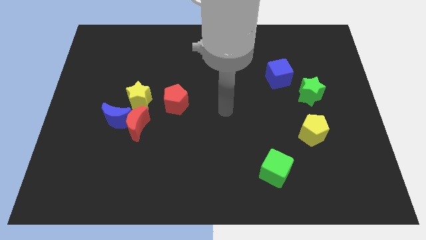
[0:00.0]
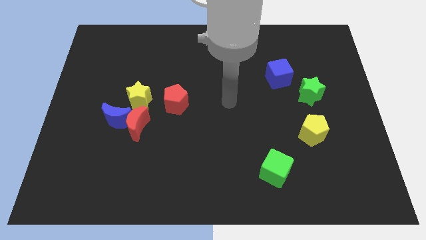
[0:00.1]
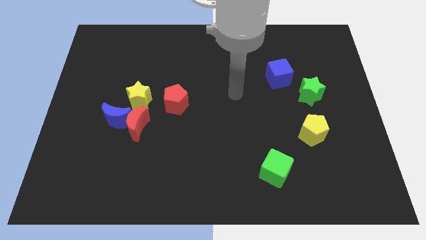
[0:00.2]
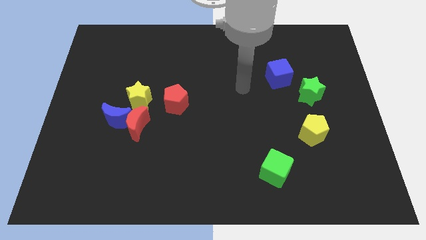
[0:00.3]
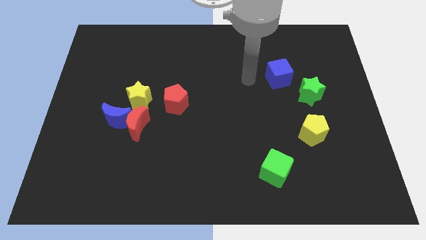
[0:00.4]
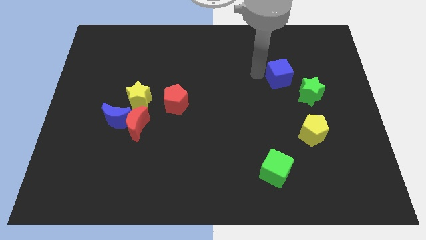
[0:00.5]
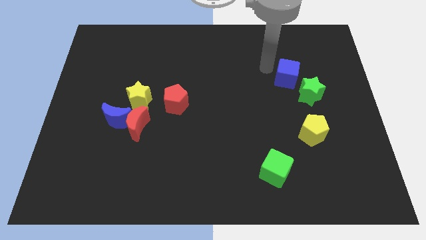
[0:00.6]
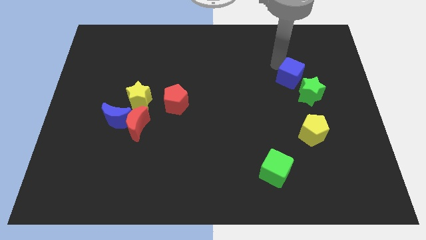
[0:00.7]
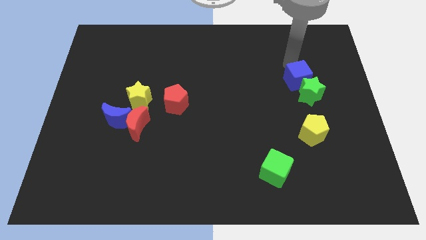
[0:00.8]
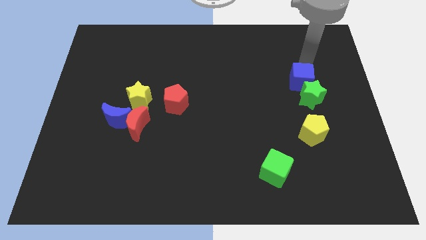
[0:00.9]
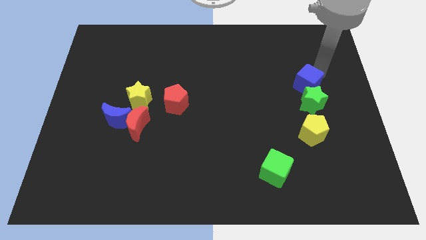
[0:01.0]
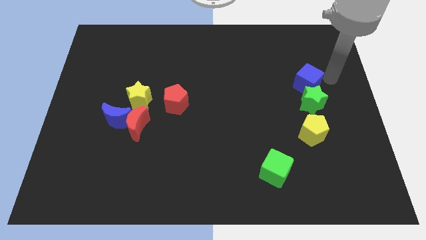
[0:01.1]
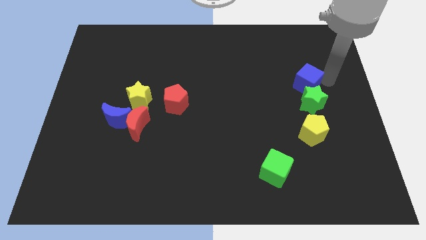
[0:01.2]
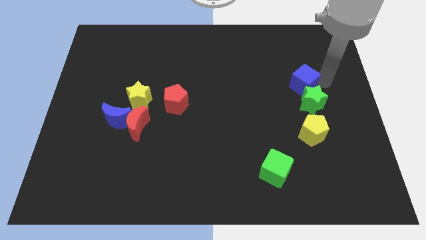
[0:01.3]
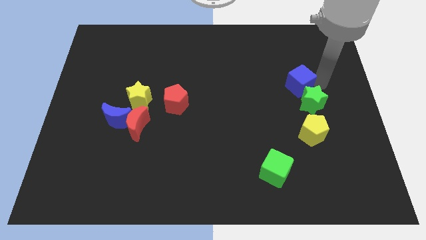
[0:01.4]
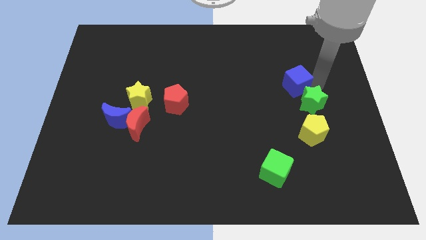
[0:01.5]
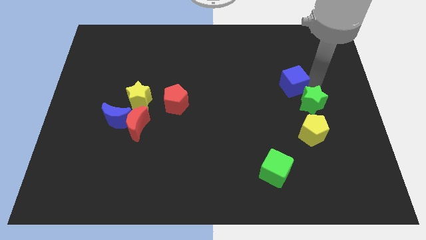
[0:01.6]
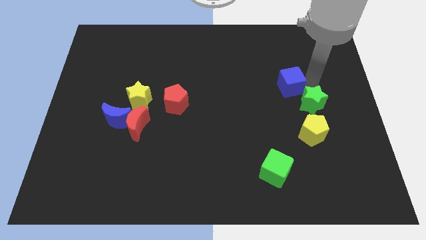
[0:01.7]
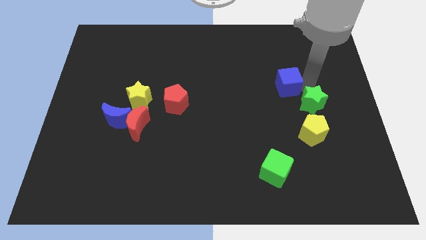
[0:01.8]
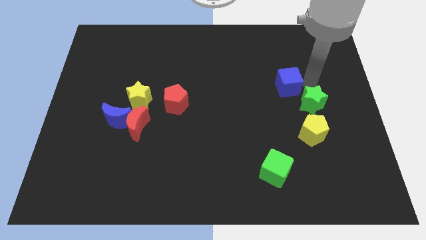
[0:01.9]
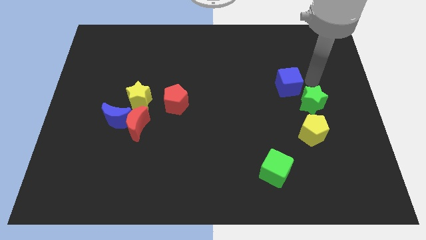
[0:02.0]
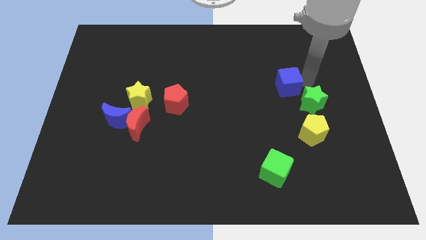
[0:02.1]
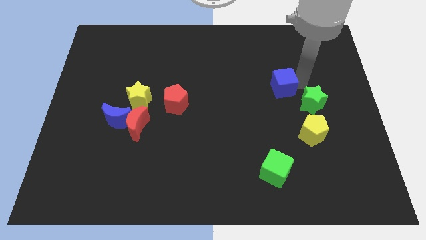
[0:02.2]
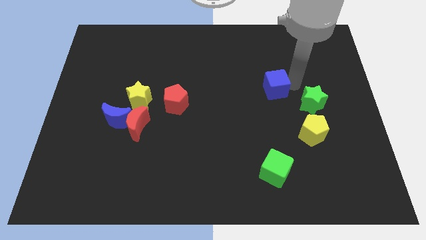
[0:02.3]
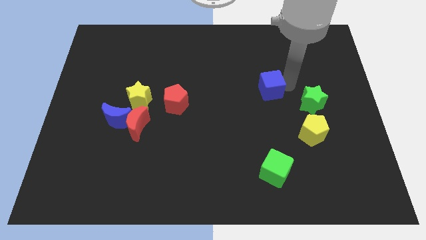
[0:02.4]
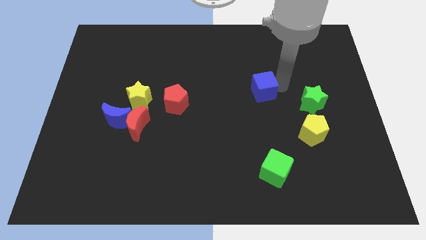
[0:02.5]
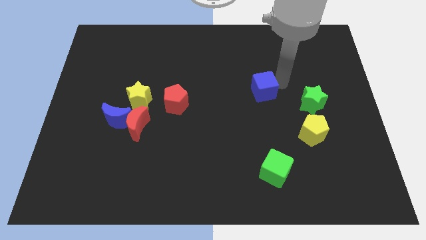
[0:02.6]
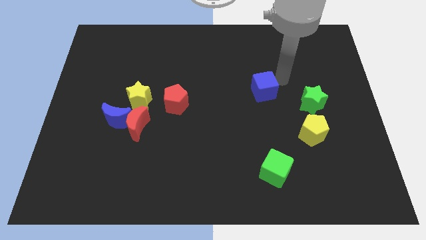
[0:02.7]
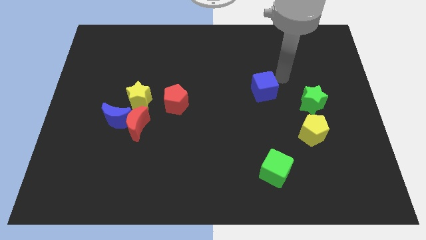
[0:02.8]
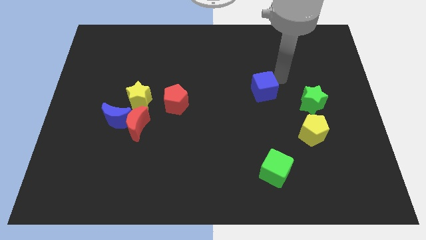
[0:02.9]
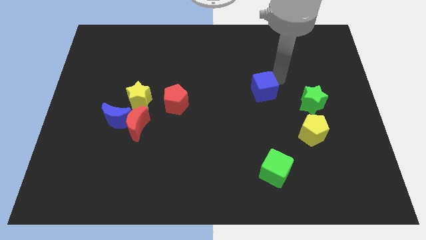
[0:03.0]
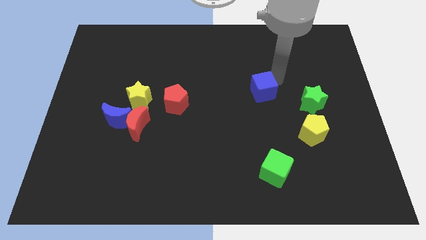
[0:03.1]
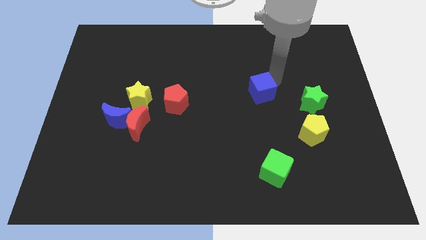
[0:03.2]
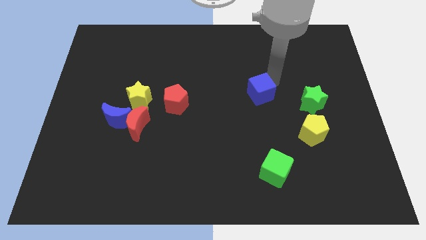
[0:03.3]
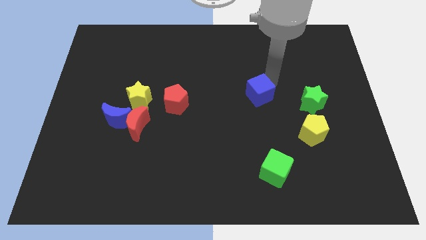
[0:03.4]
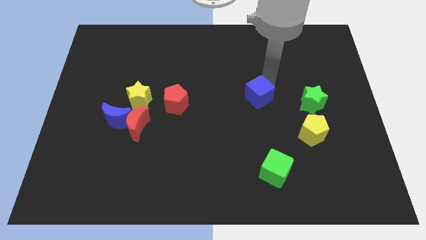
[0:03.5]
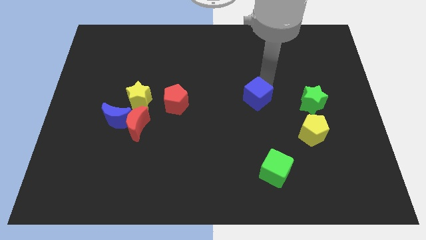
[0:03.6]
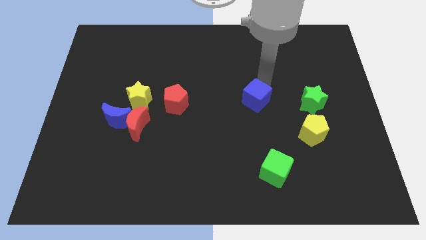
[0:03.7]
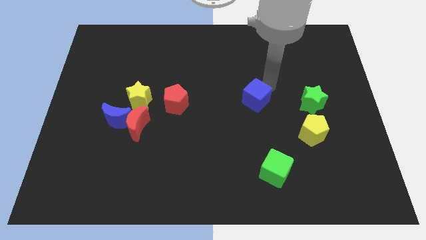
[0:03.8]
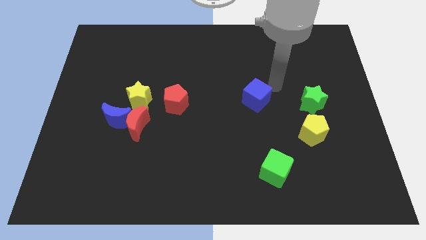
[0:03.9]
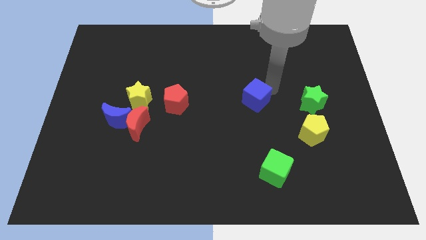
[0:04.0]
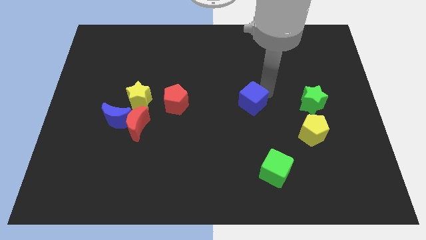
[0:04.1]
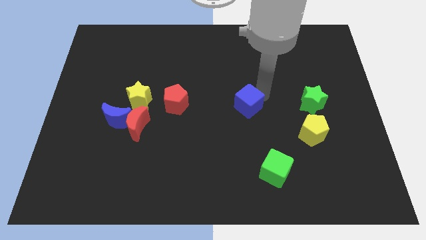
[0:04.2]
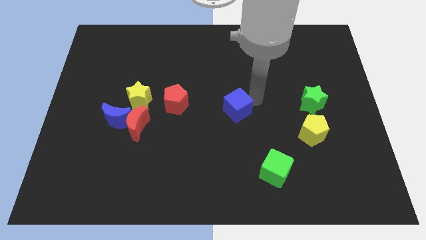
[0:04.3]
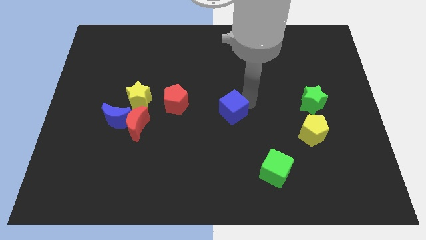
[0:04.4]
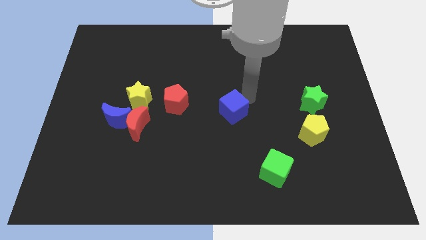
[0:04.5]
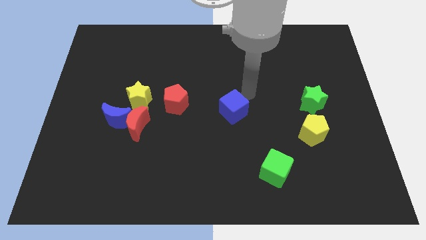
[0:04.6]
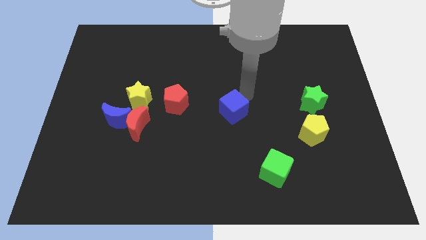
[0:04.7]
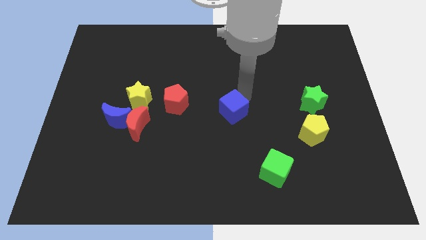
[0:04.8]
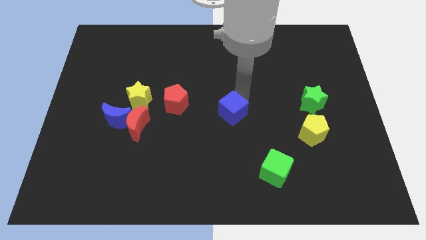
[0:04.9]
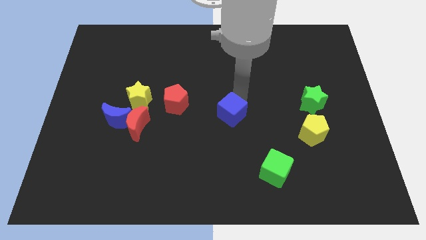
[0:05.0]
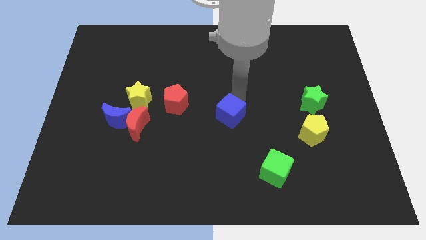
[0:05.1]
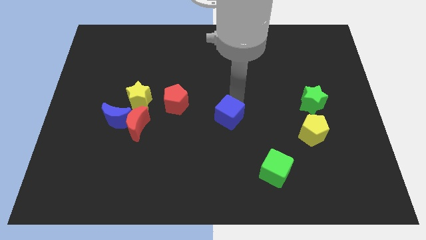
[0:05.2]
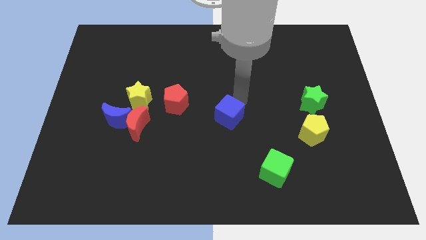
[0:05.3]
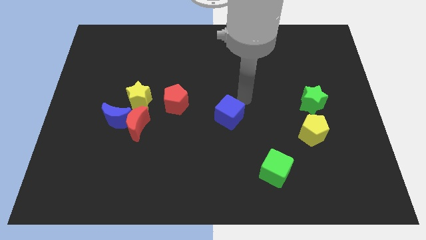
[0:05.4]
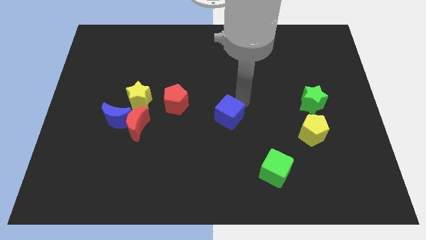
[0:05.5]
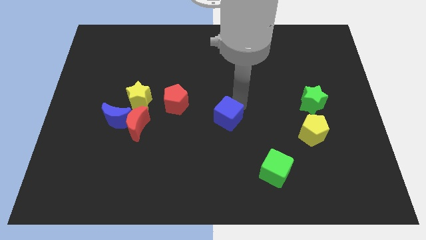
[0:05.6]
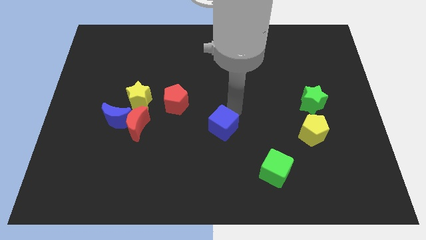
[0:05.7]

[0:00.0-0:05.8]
slide the blue cube downwards and to the left diagonally

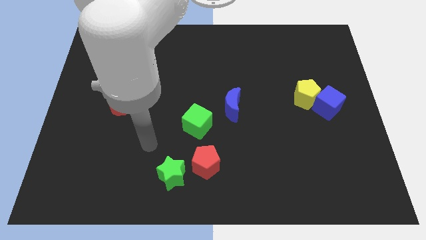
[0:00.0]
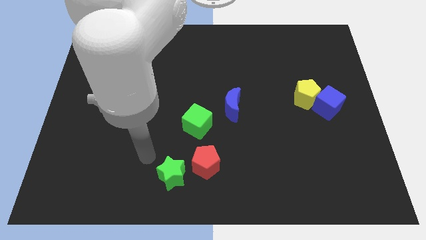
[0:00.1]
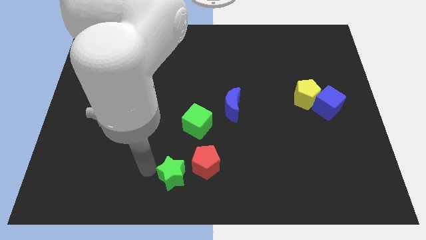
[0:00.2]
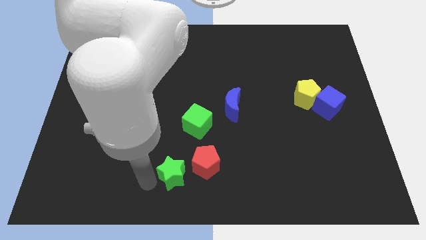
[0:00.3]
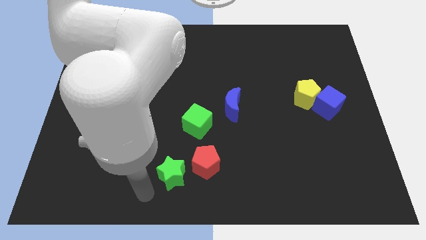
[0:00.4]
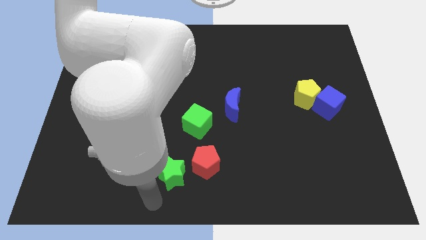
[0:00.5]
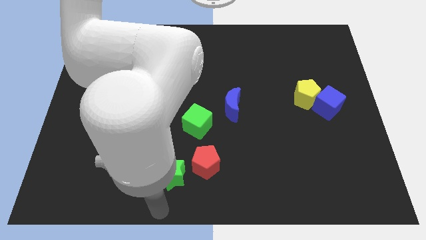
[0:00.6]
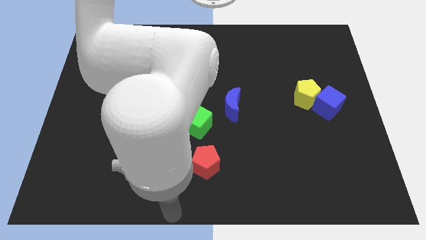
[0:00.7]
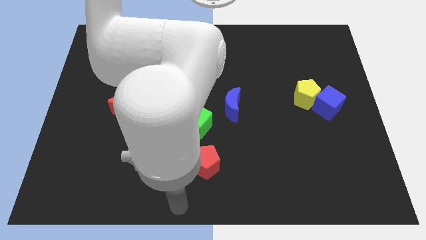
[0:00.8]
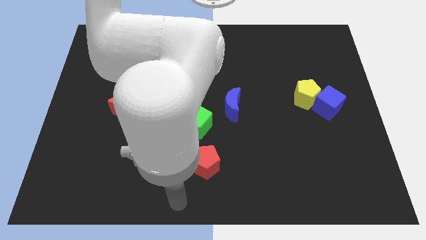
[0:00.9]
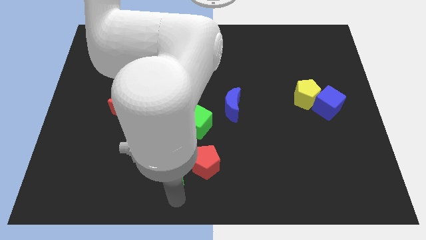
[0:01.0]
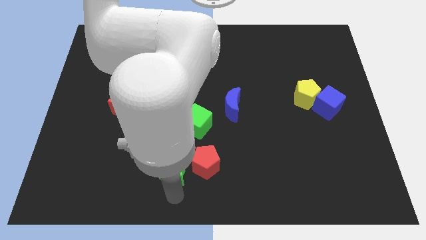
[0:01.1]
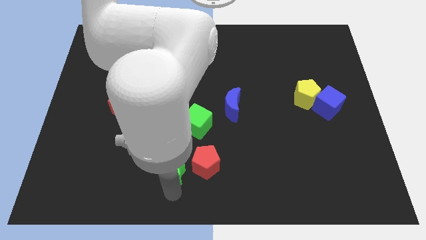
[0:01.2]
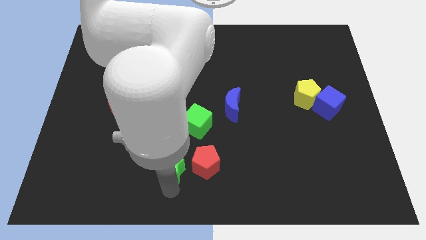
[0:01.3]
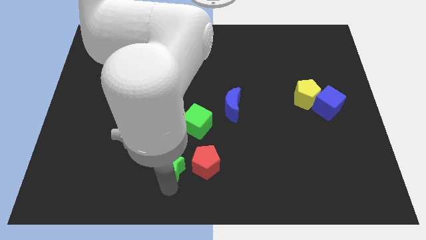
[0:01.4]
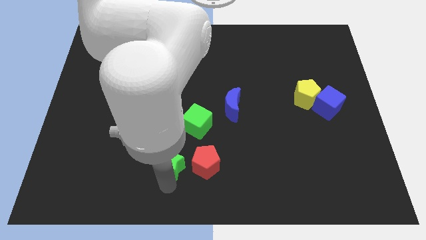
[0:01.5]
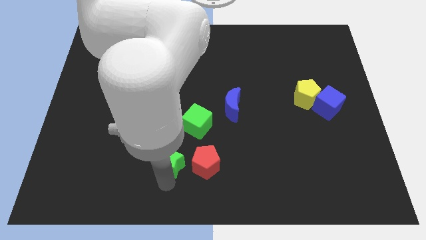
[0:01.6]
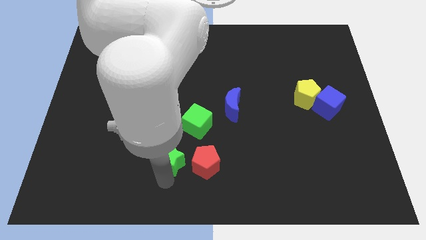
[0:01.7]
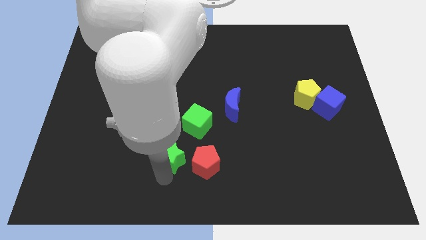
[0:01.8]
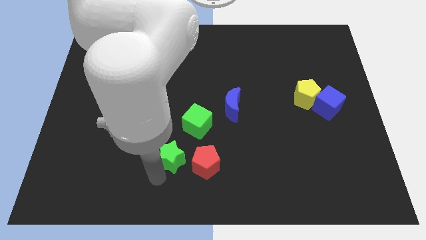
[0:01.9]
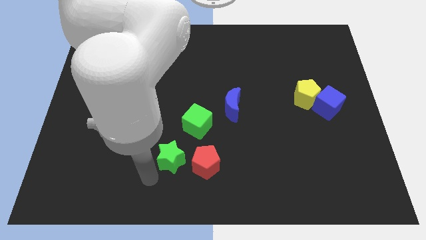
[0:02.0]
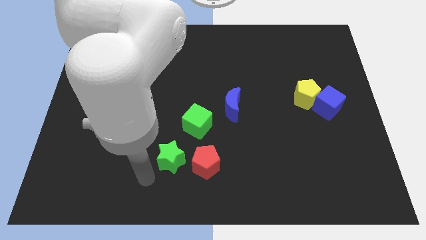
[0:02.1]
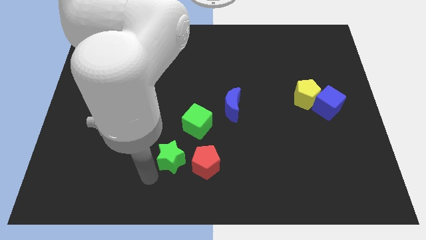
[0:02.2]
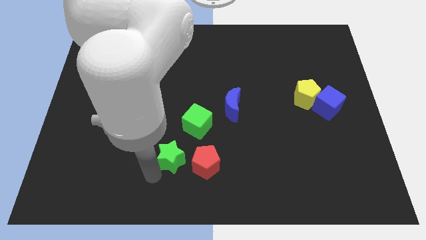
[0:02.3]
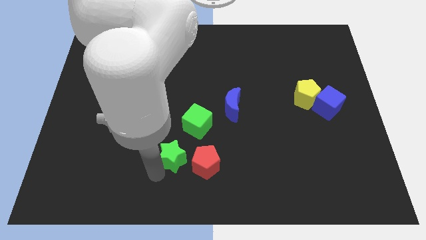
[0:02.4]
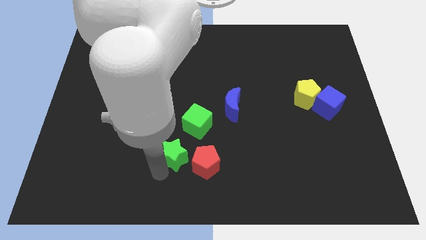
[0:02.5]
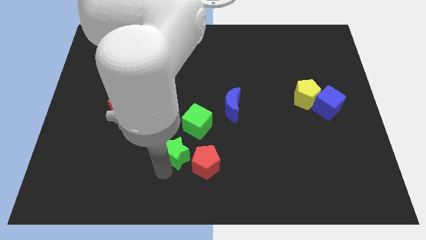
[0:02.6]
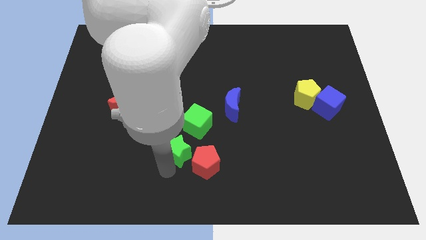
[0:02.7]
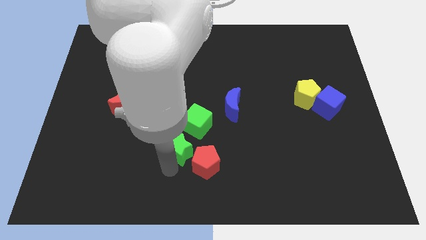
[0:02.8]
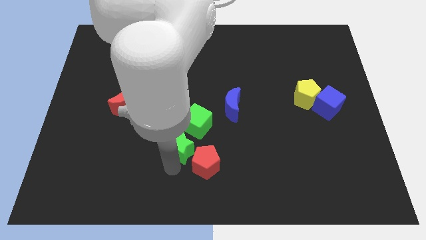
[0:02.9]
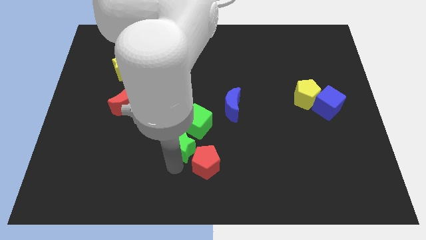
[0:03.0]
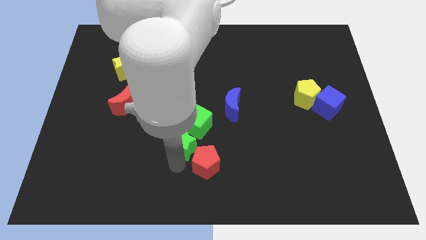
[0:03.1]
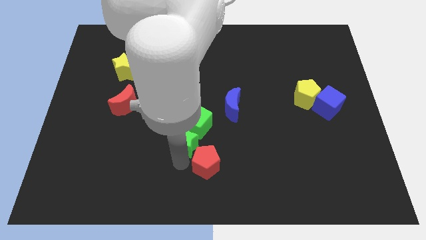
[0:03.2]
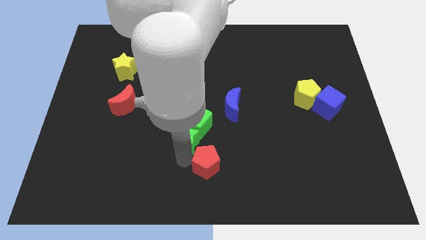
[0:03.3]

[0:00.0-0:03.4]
push the green star diagonally up and right somewhat
